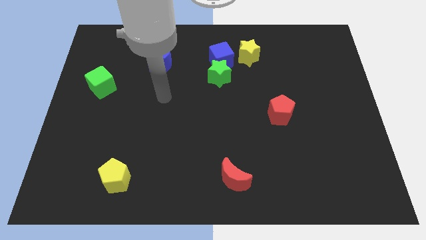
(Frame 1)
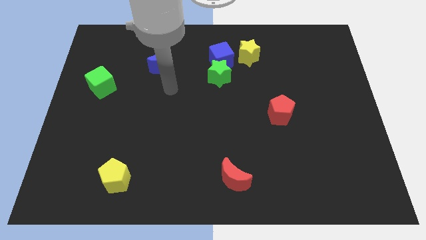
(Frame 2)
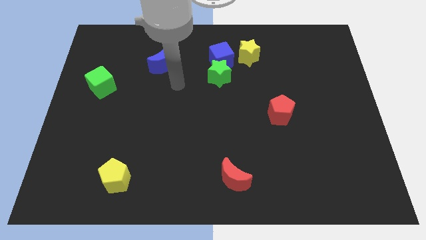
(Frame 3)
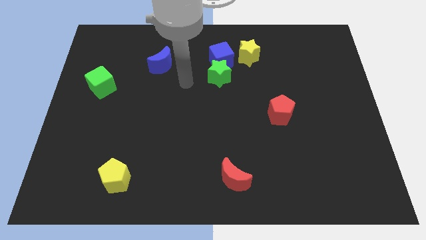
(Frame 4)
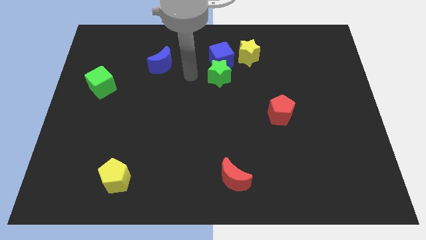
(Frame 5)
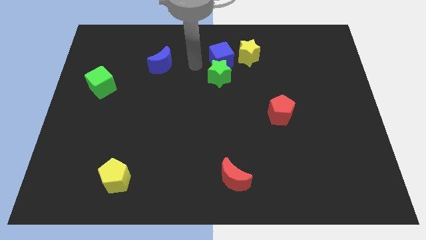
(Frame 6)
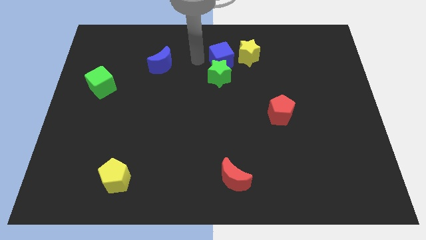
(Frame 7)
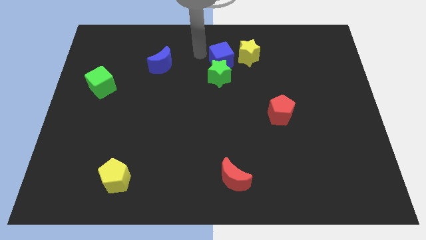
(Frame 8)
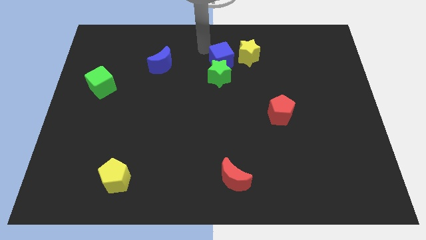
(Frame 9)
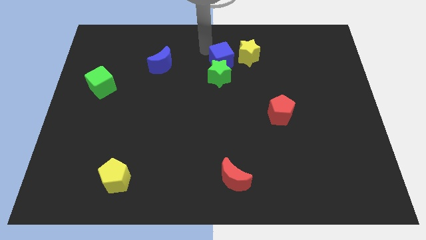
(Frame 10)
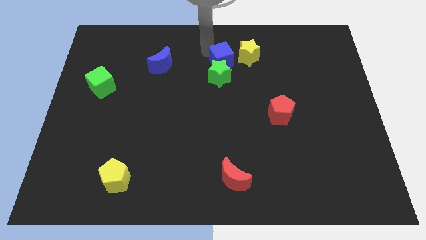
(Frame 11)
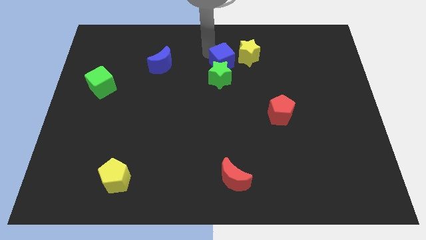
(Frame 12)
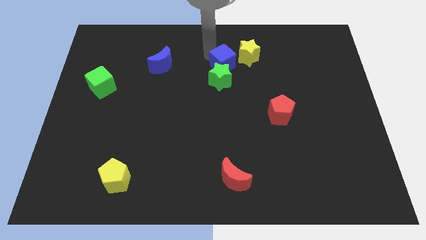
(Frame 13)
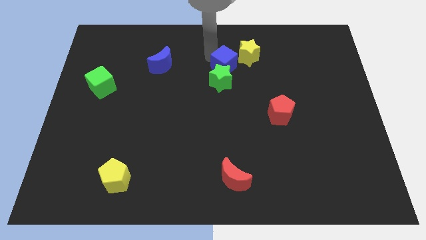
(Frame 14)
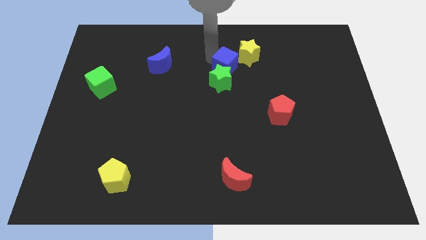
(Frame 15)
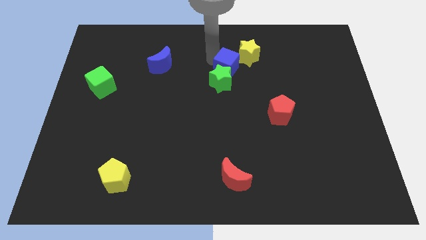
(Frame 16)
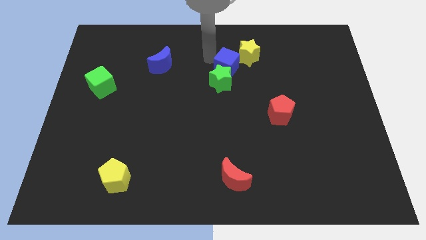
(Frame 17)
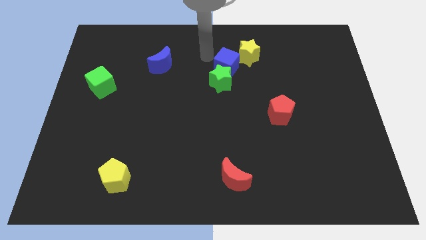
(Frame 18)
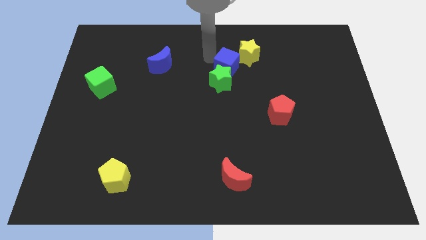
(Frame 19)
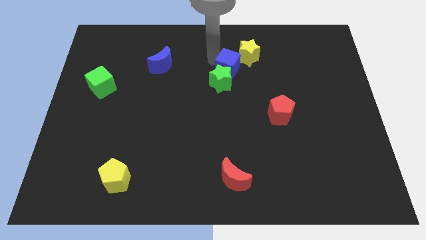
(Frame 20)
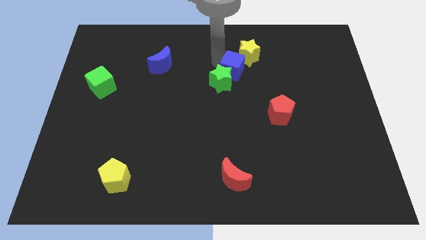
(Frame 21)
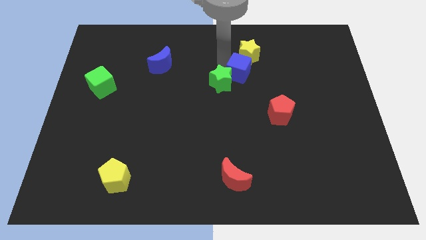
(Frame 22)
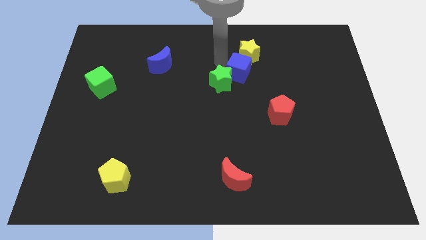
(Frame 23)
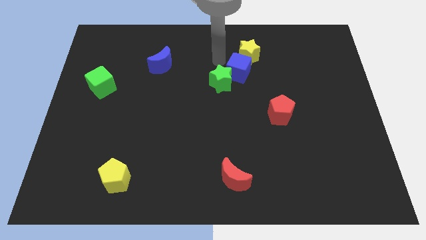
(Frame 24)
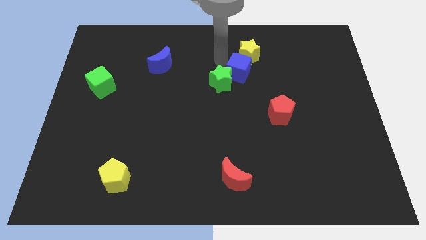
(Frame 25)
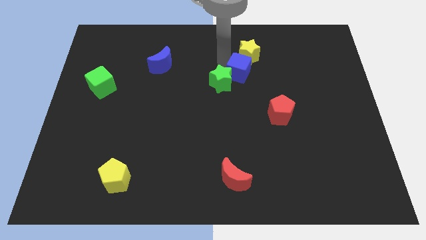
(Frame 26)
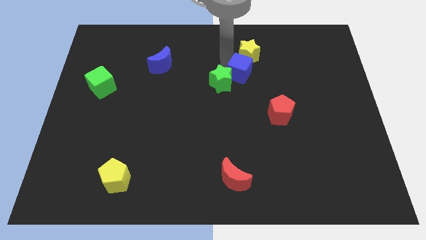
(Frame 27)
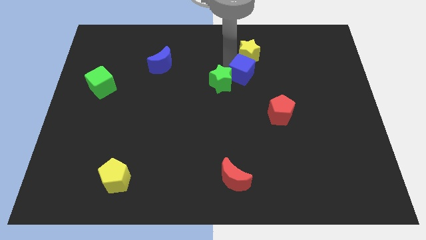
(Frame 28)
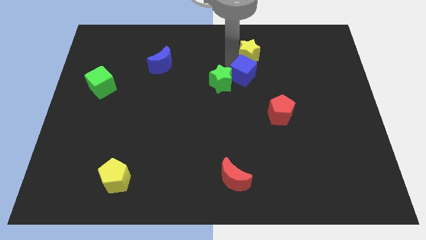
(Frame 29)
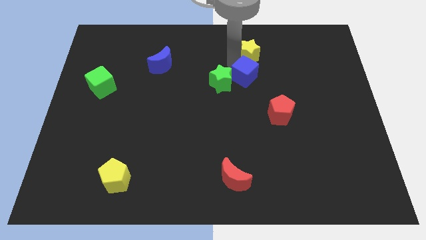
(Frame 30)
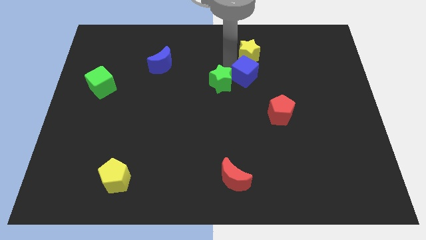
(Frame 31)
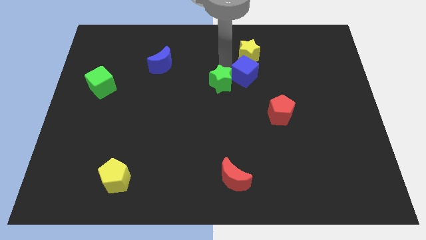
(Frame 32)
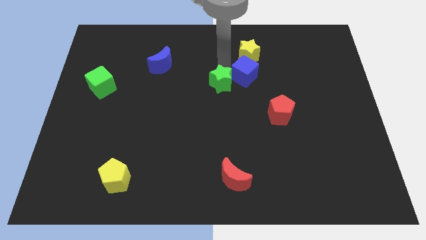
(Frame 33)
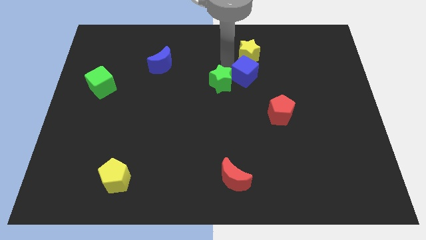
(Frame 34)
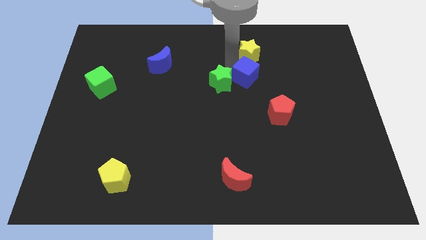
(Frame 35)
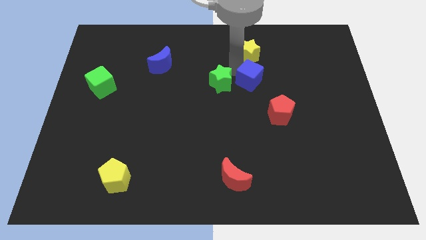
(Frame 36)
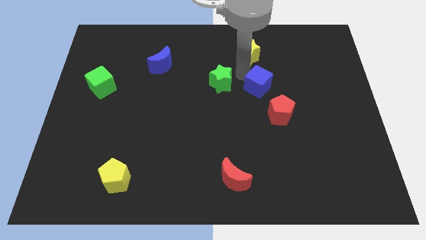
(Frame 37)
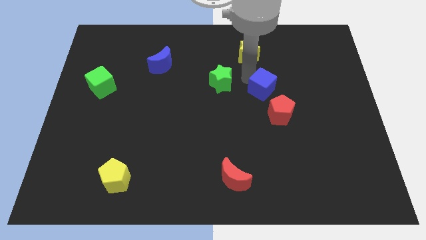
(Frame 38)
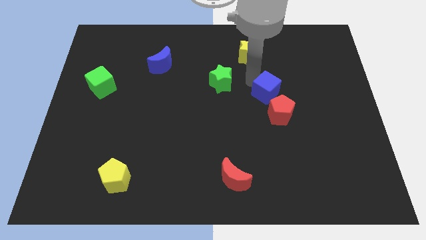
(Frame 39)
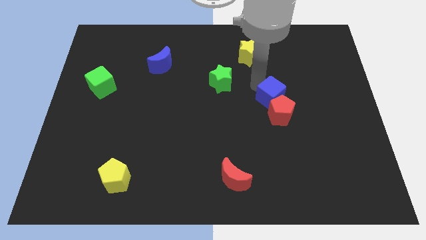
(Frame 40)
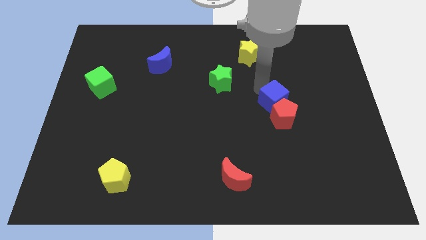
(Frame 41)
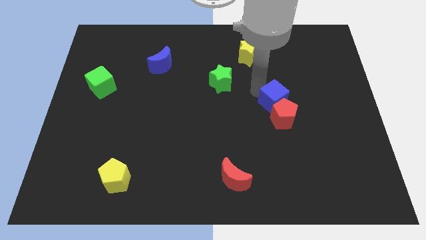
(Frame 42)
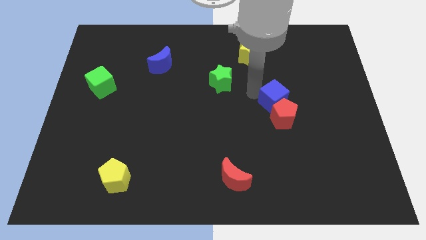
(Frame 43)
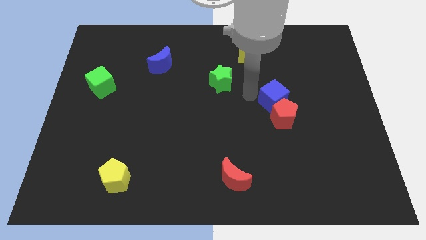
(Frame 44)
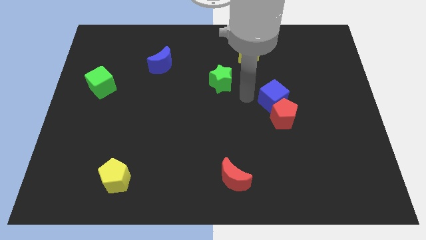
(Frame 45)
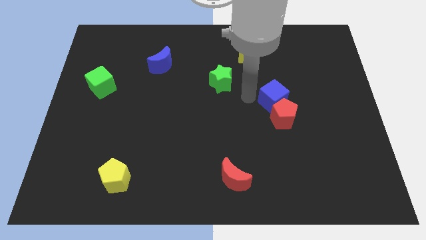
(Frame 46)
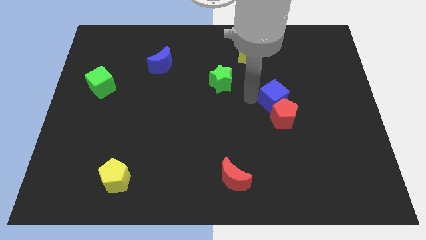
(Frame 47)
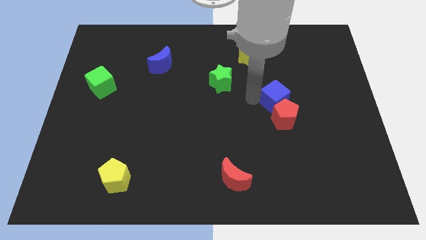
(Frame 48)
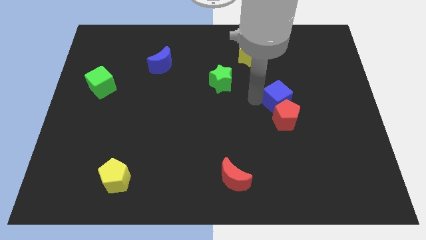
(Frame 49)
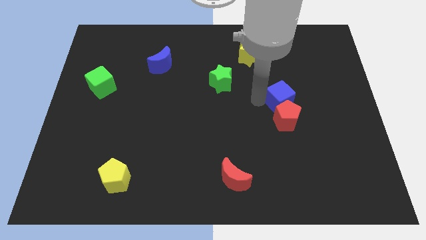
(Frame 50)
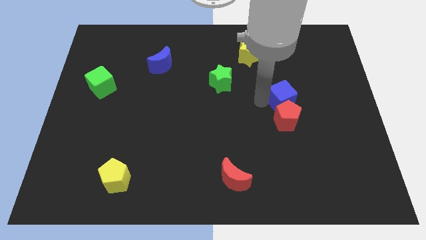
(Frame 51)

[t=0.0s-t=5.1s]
move the blue cube downwards and then to the right

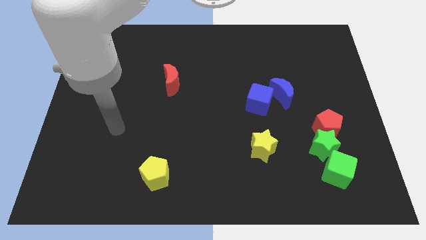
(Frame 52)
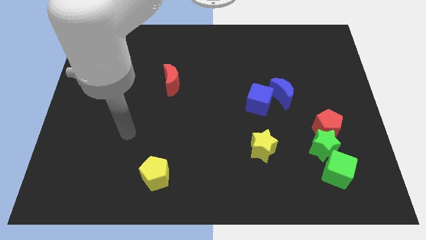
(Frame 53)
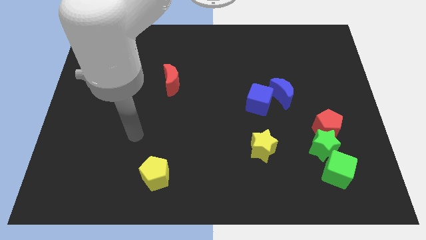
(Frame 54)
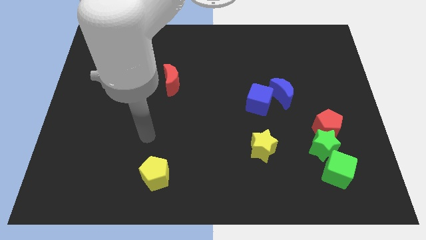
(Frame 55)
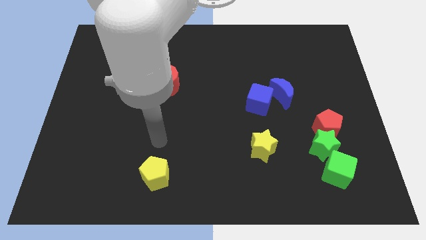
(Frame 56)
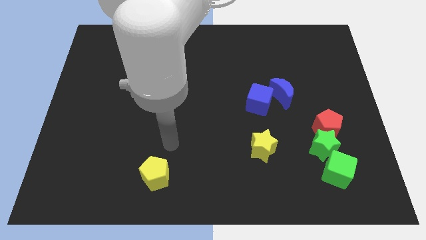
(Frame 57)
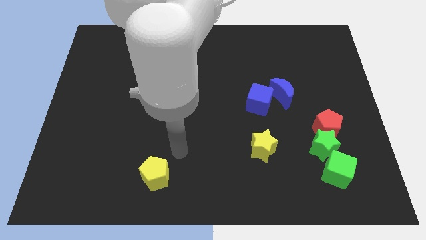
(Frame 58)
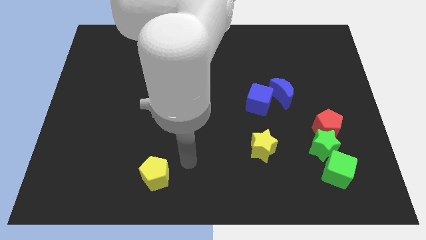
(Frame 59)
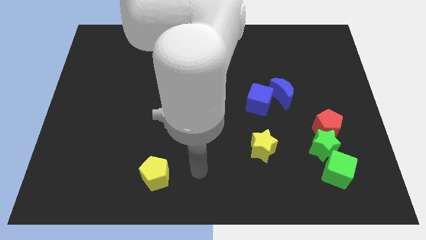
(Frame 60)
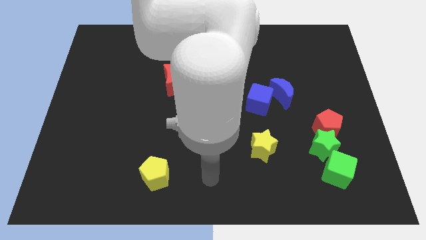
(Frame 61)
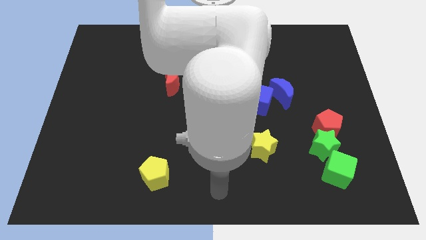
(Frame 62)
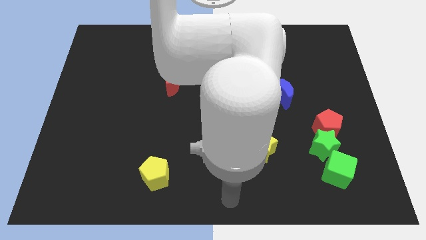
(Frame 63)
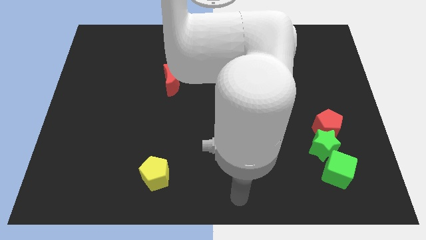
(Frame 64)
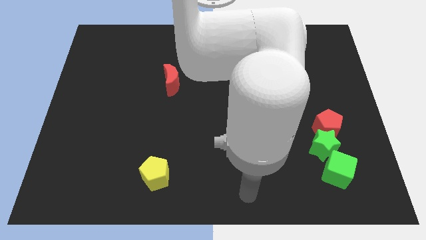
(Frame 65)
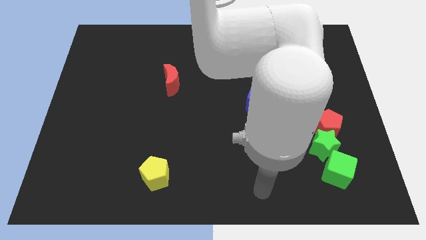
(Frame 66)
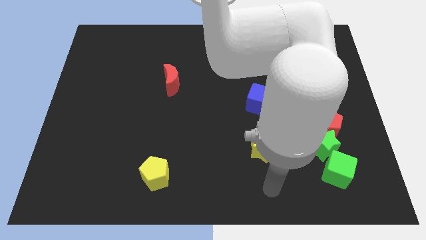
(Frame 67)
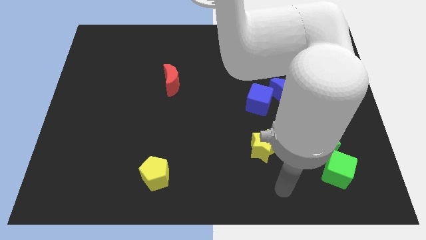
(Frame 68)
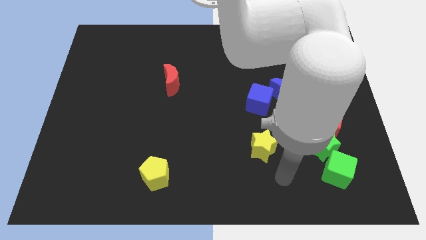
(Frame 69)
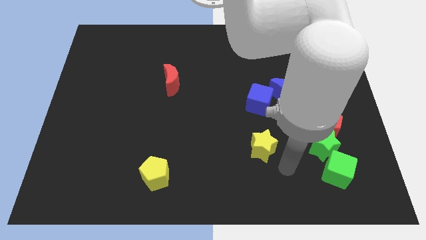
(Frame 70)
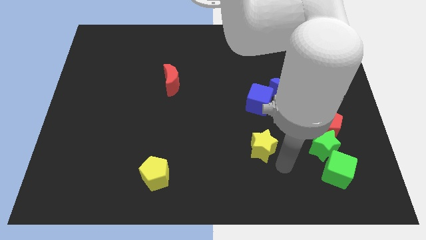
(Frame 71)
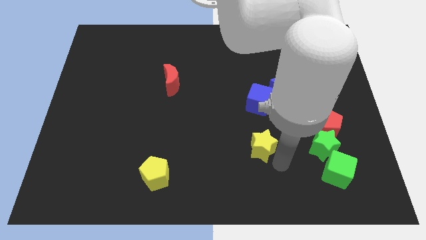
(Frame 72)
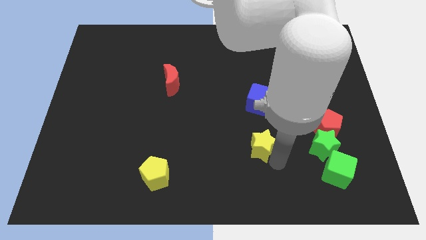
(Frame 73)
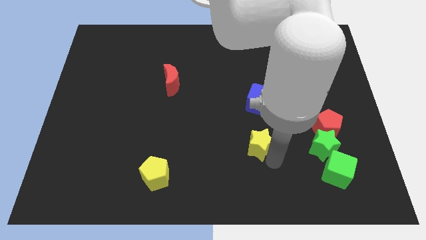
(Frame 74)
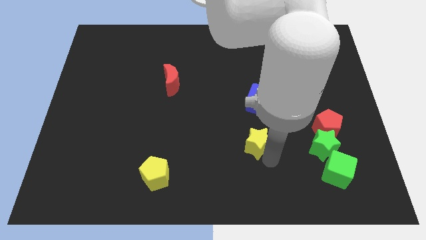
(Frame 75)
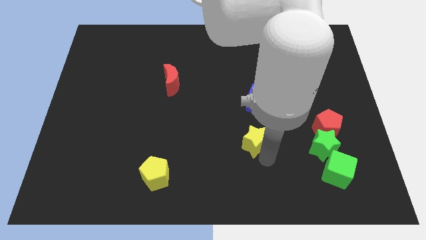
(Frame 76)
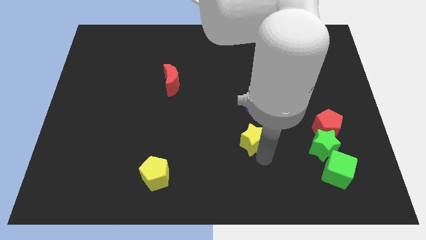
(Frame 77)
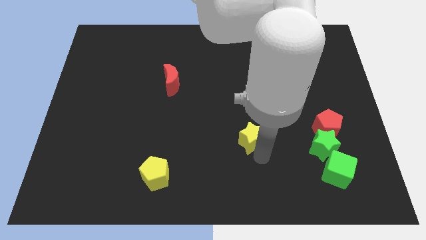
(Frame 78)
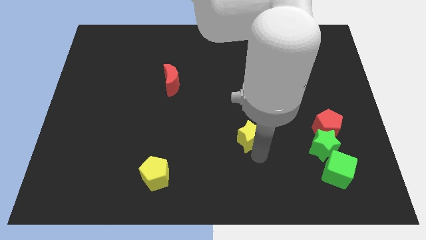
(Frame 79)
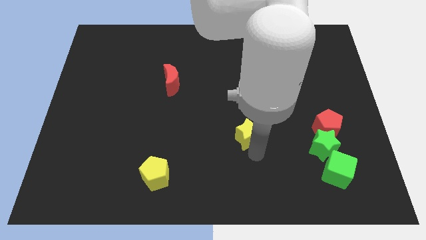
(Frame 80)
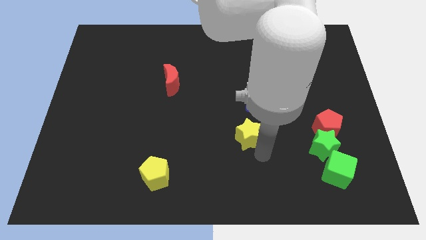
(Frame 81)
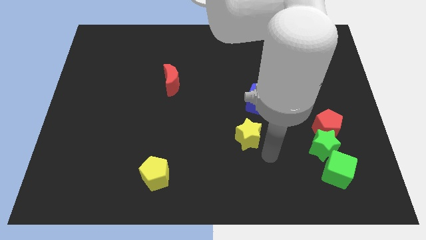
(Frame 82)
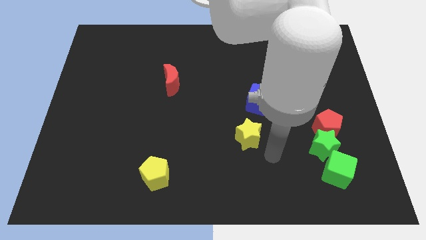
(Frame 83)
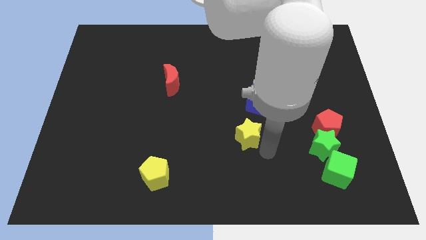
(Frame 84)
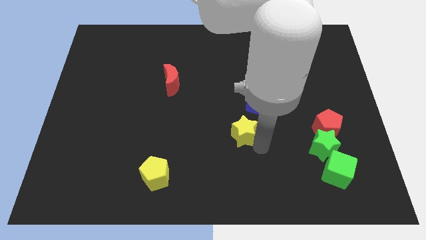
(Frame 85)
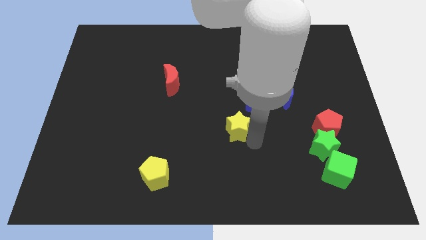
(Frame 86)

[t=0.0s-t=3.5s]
push the yellow star a bit upwards and left
